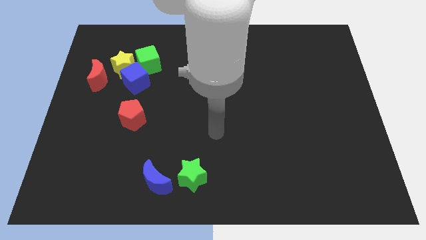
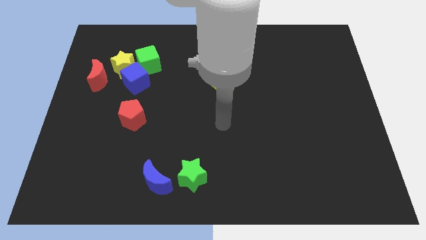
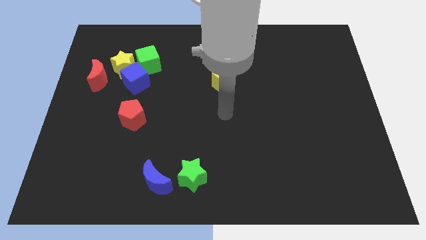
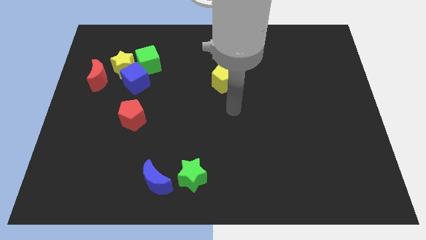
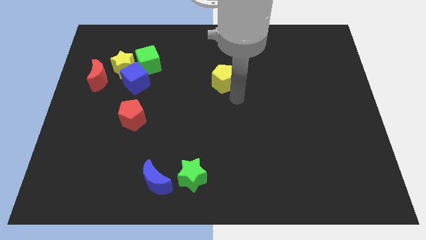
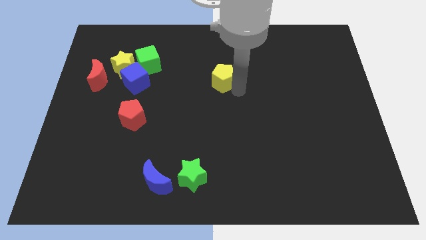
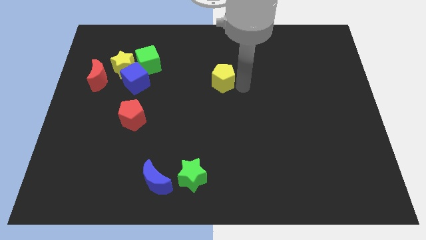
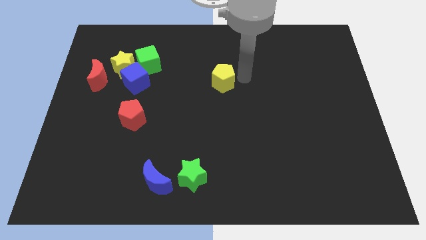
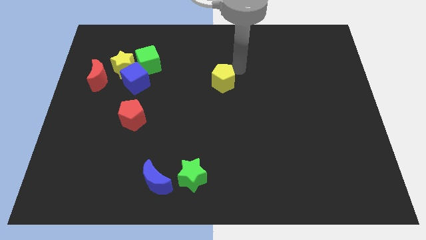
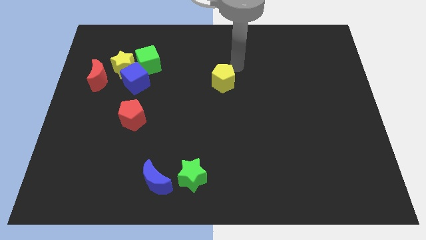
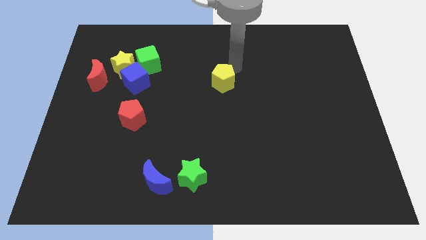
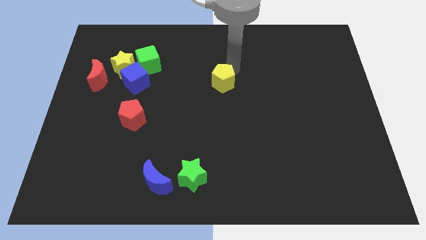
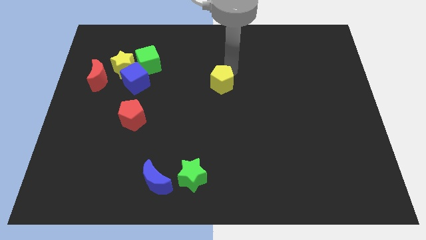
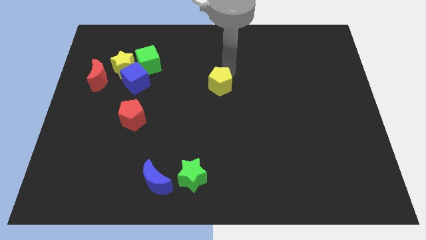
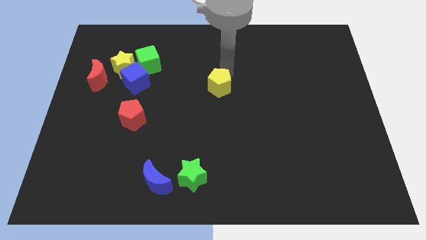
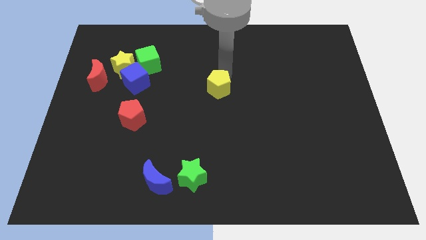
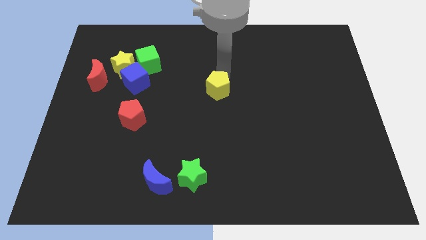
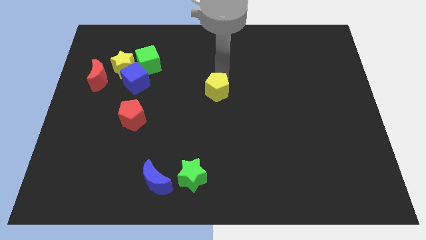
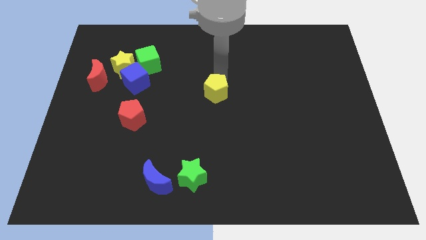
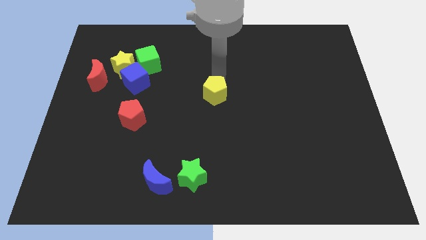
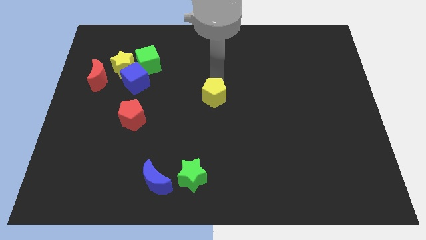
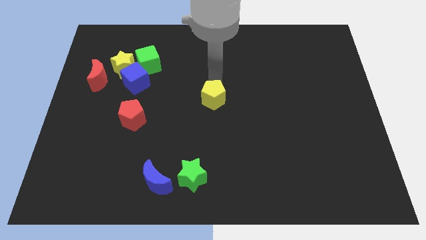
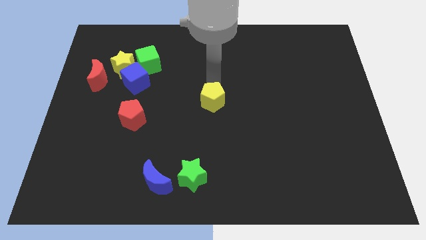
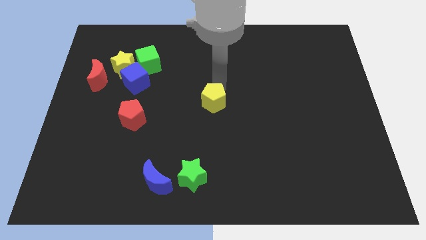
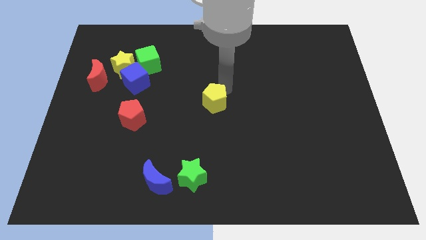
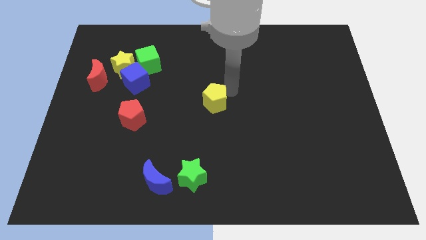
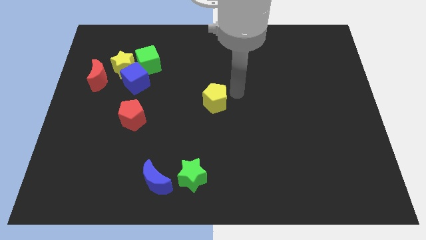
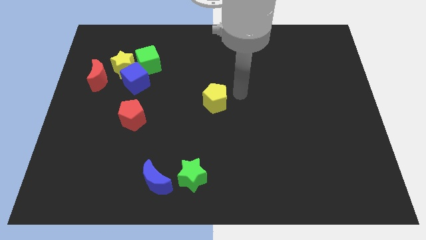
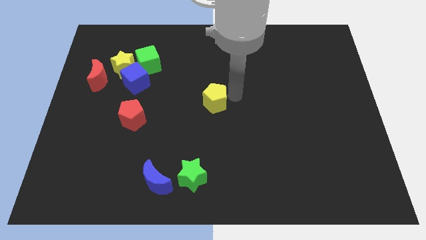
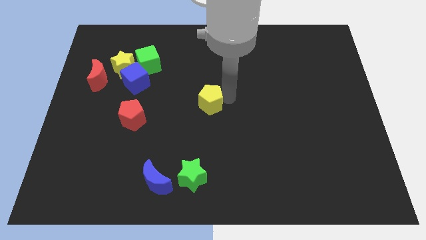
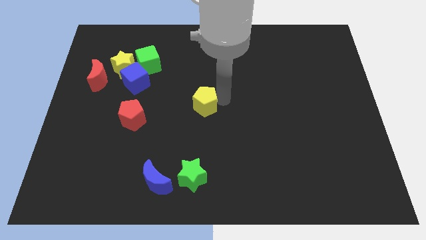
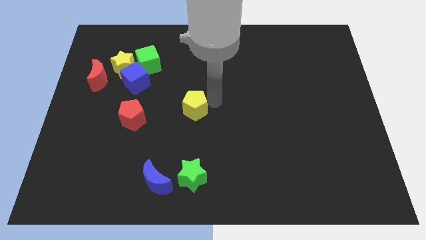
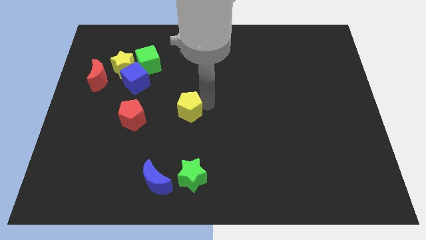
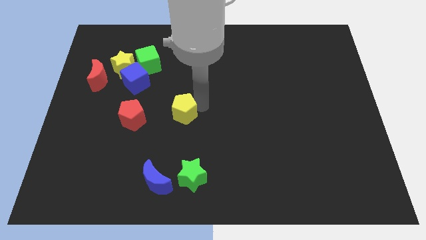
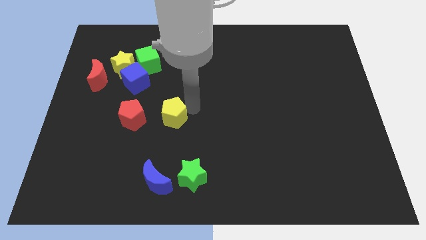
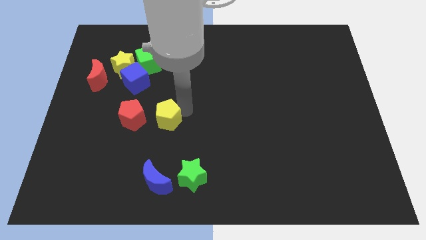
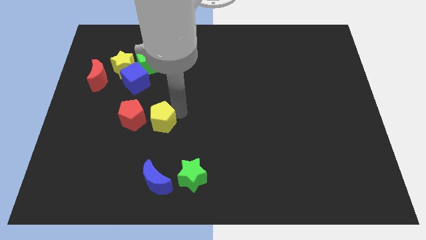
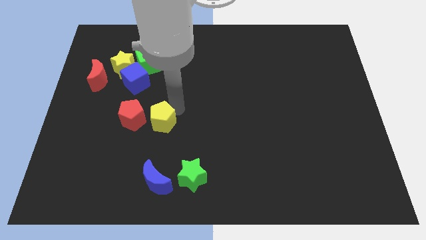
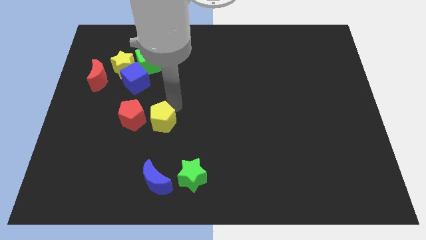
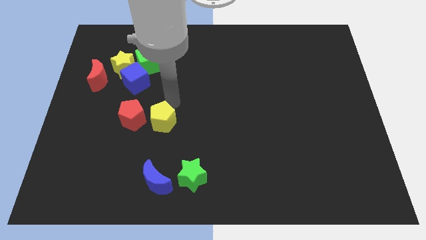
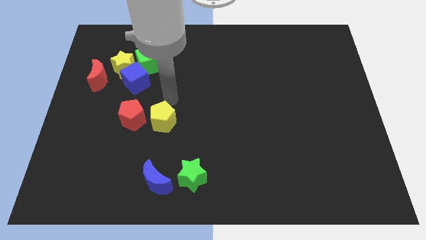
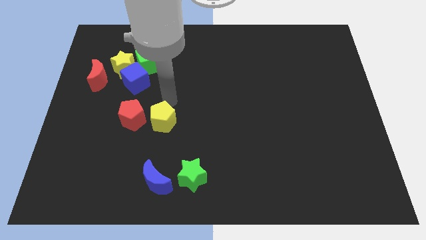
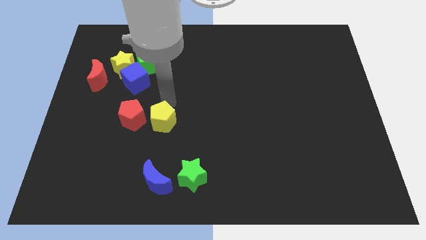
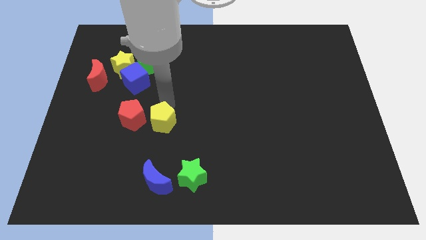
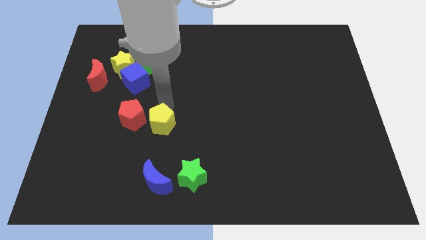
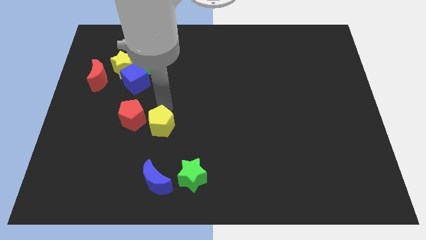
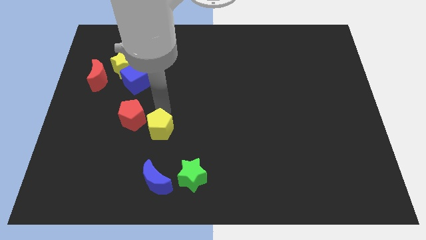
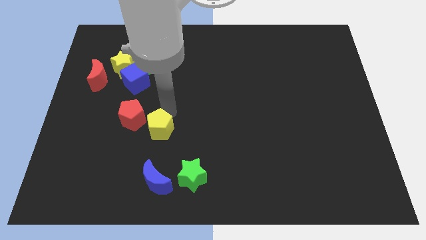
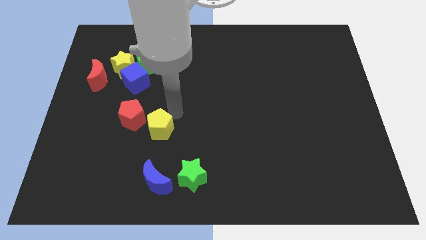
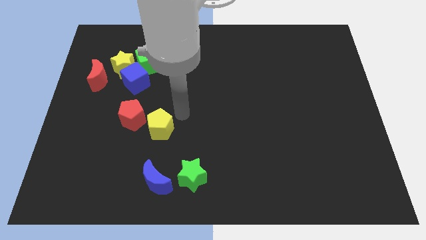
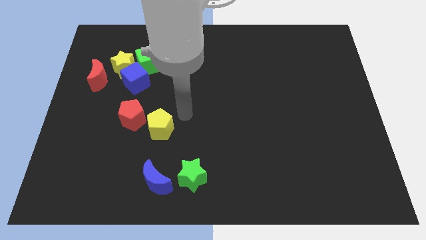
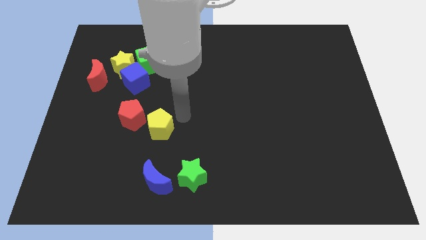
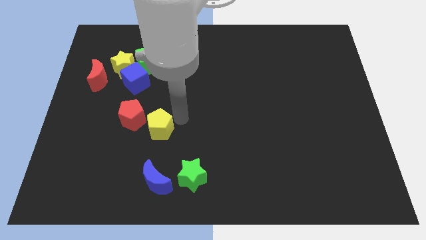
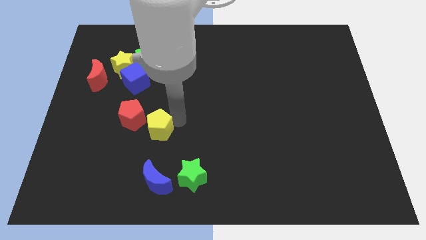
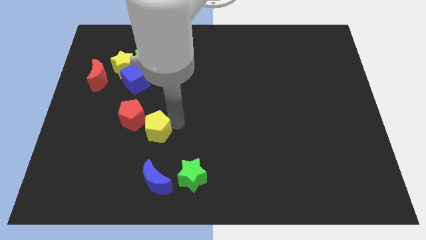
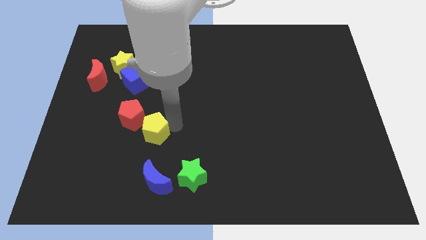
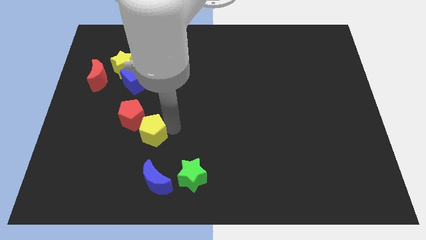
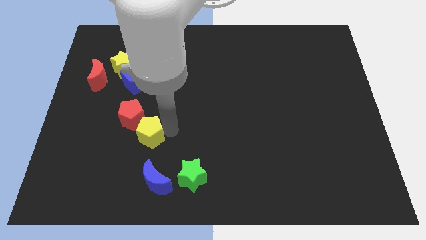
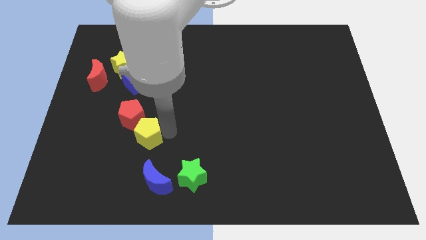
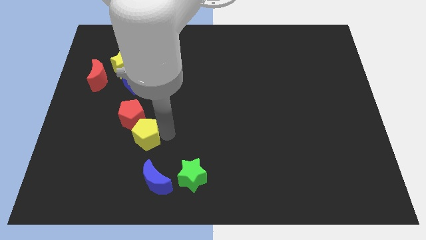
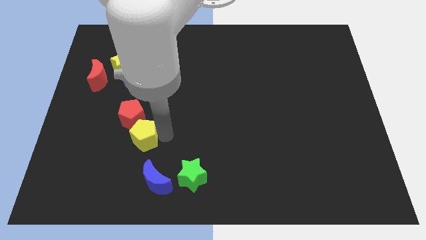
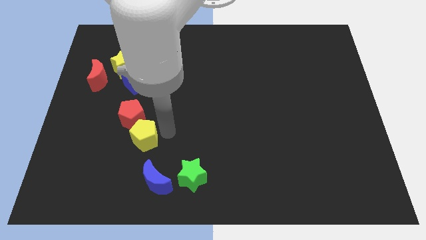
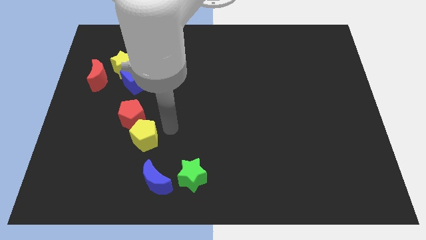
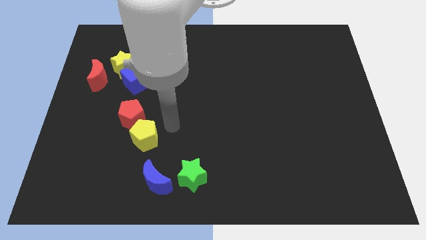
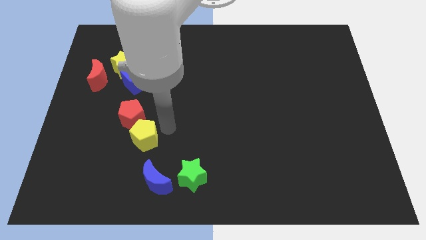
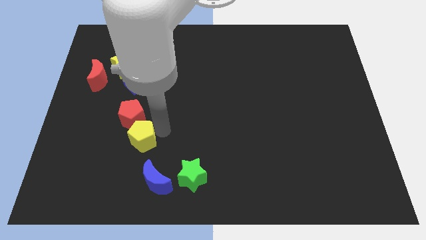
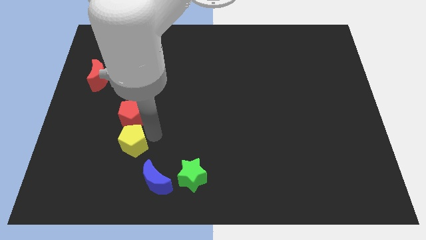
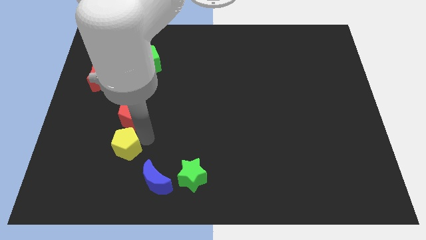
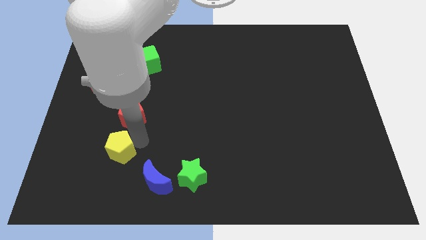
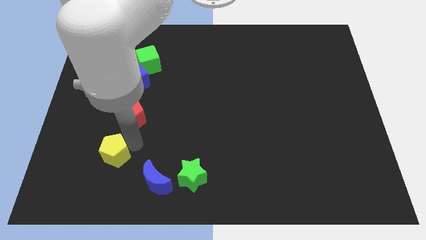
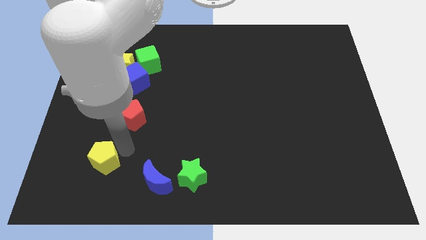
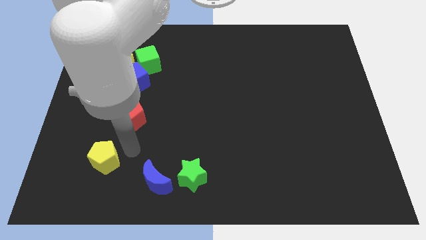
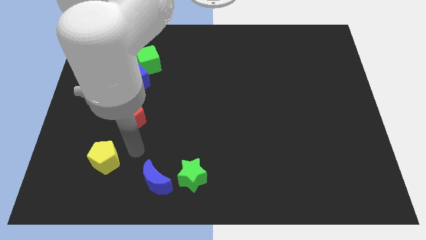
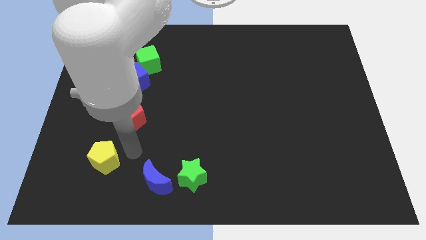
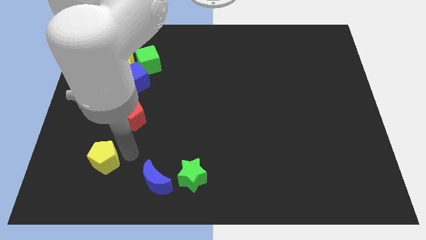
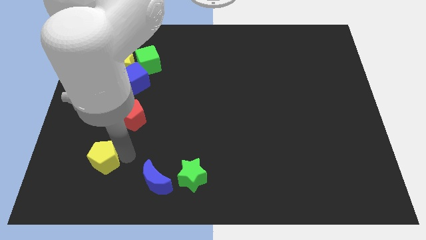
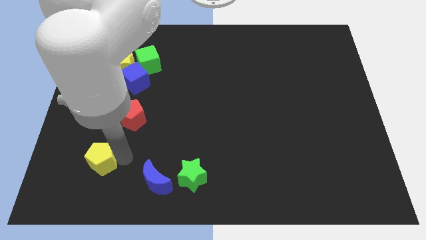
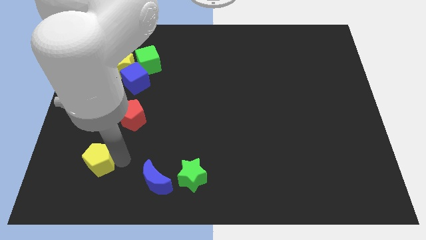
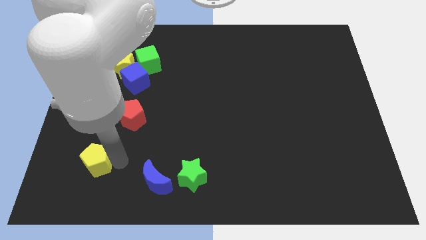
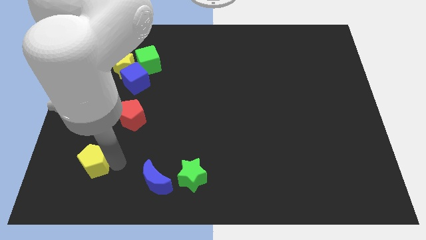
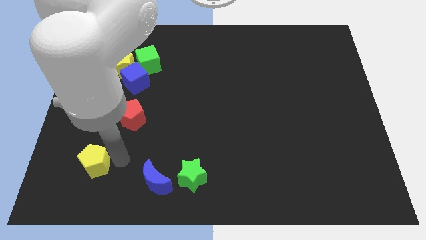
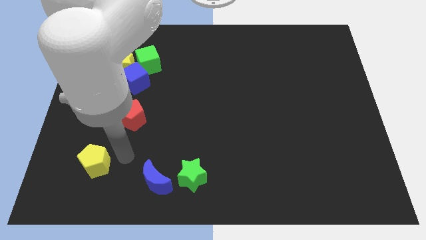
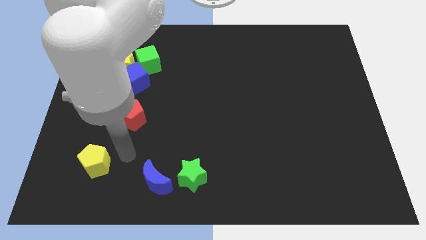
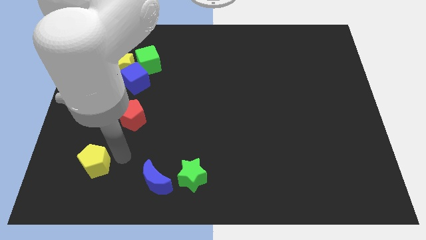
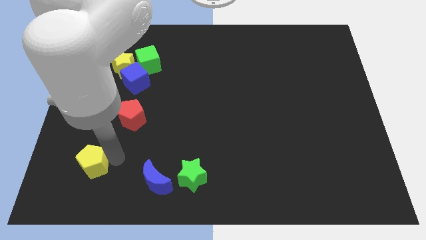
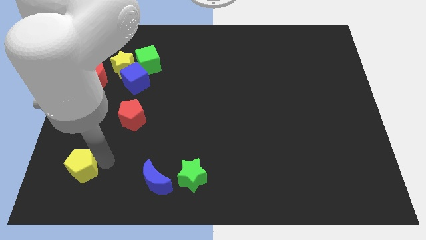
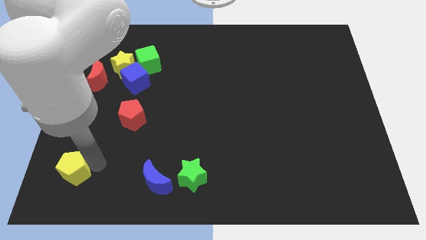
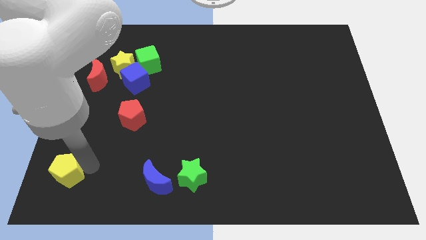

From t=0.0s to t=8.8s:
push the yellow pentagon to the bottom left of the board
